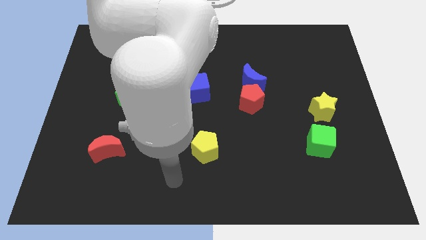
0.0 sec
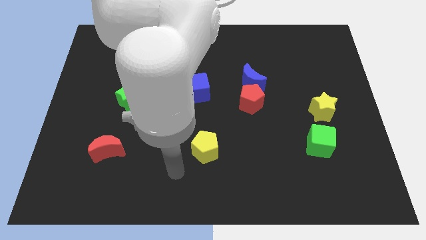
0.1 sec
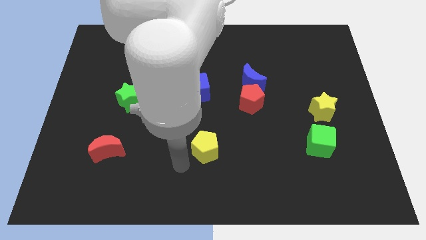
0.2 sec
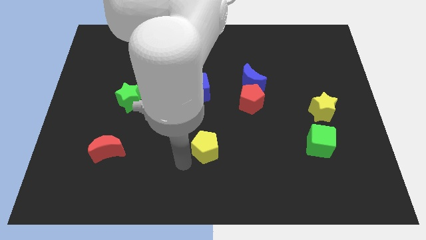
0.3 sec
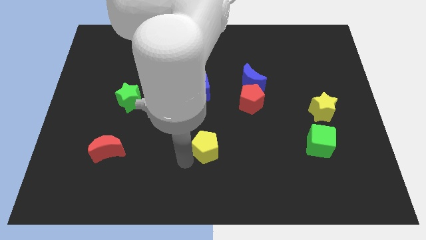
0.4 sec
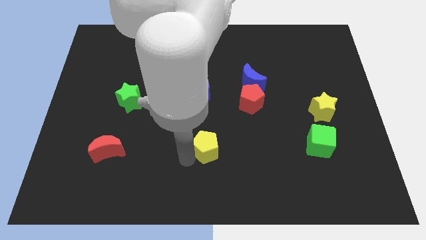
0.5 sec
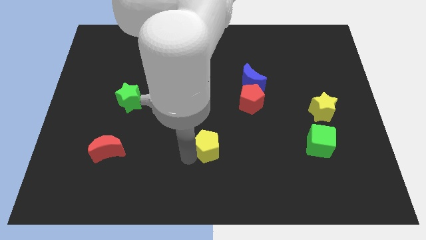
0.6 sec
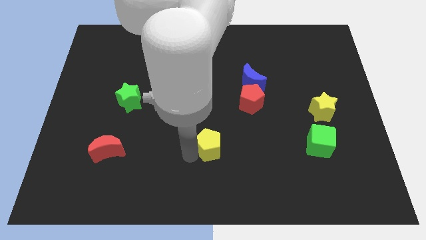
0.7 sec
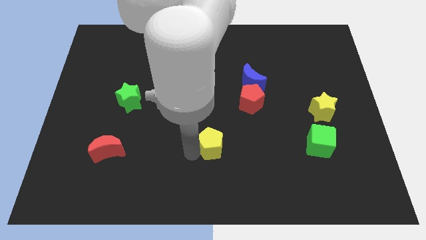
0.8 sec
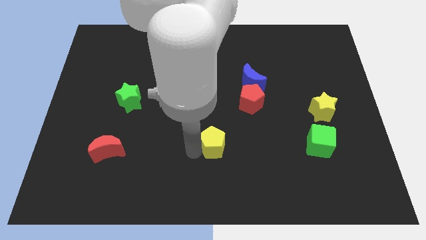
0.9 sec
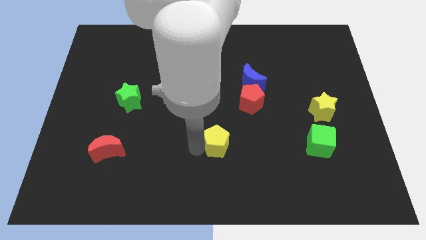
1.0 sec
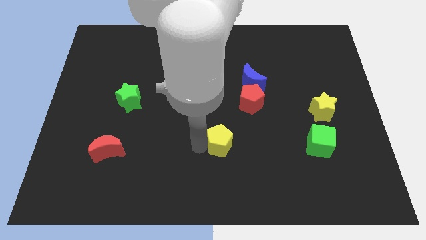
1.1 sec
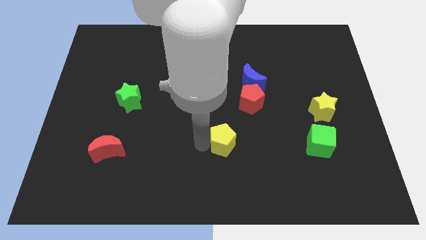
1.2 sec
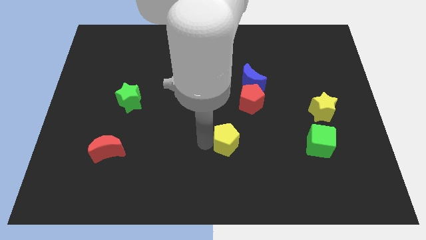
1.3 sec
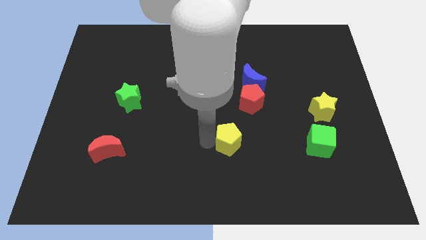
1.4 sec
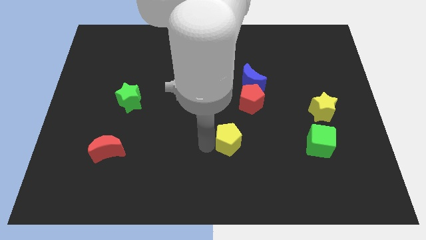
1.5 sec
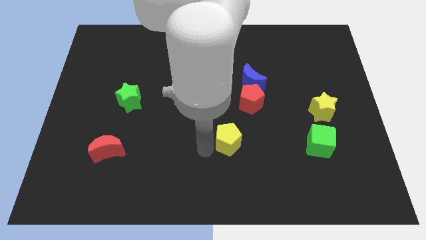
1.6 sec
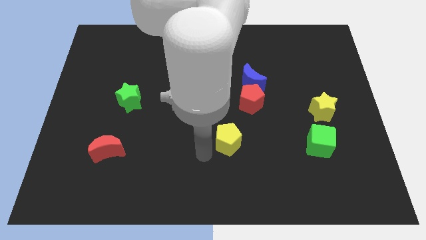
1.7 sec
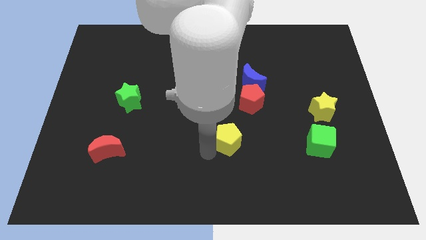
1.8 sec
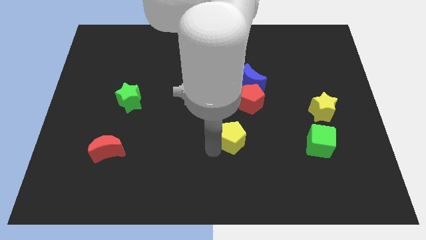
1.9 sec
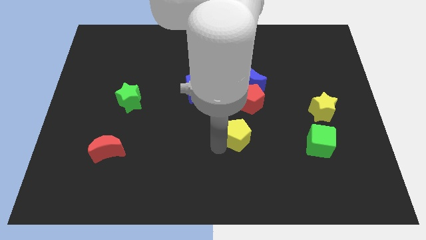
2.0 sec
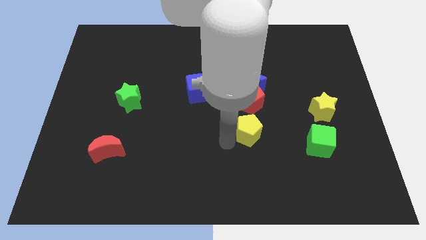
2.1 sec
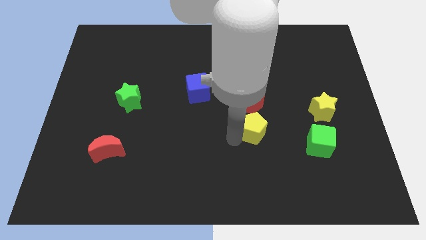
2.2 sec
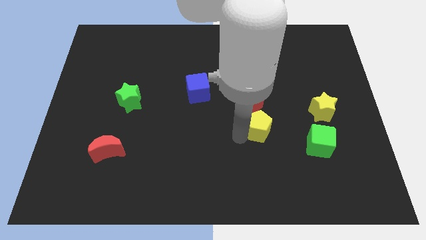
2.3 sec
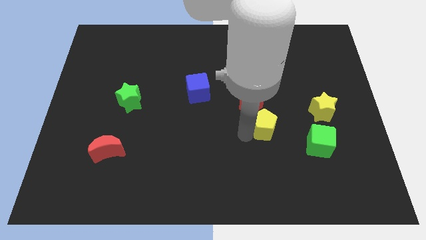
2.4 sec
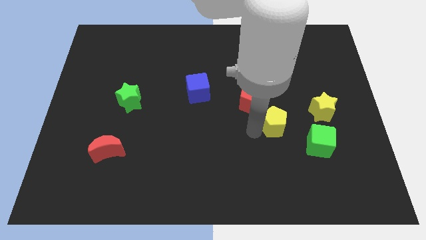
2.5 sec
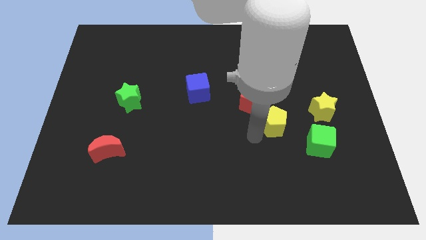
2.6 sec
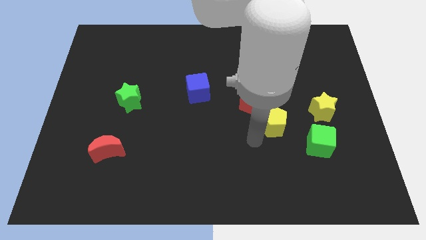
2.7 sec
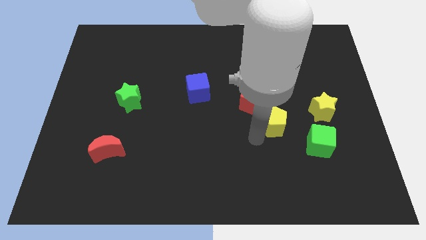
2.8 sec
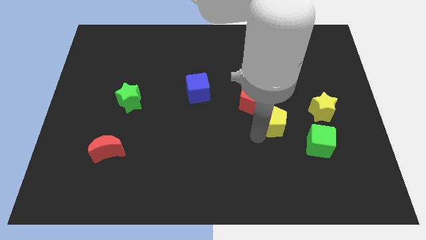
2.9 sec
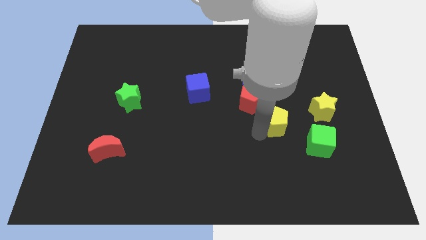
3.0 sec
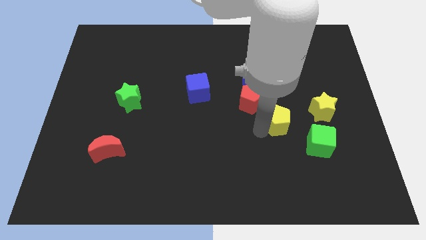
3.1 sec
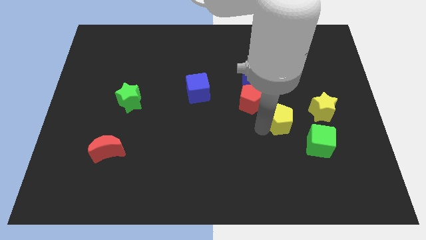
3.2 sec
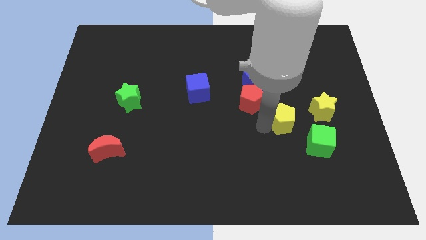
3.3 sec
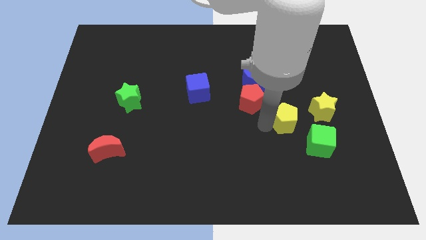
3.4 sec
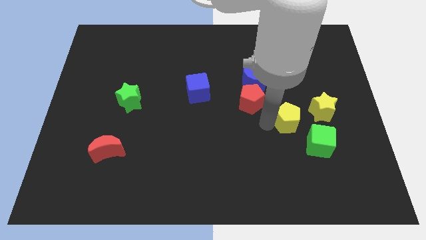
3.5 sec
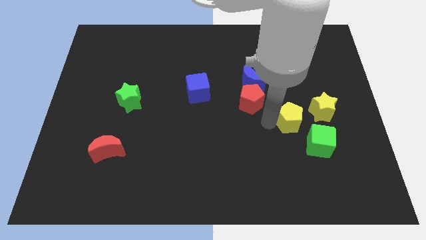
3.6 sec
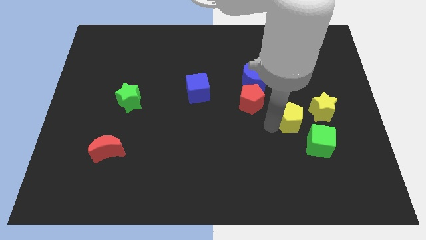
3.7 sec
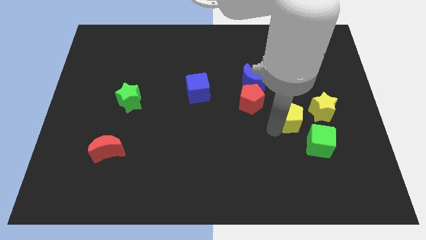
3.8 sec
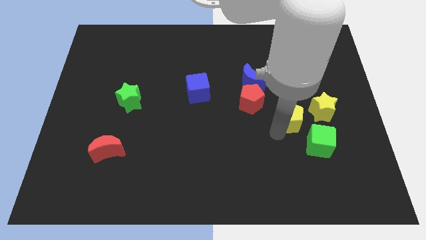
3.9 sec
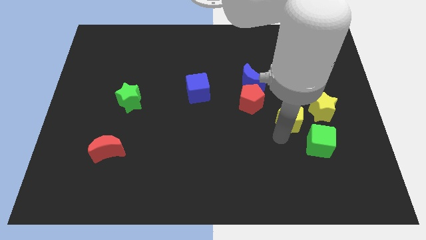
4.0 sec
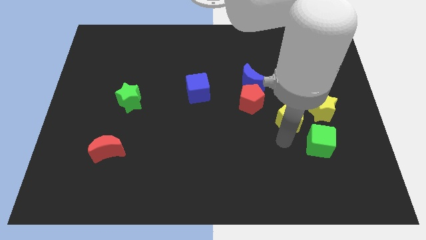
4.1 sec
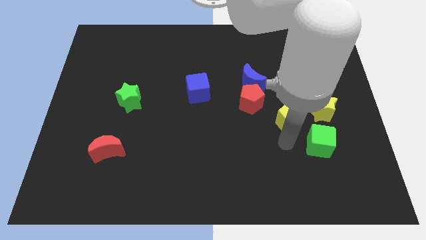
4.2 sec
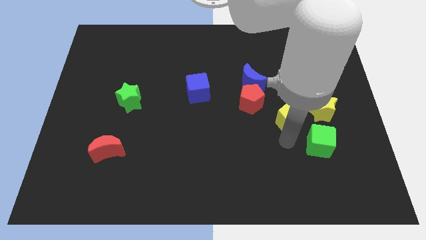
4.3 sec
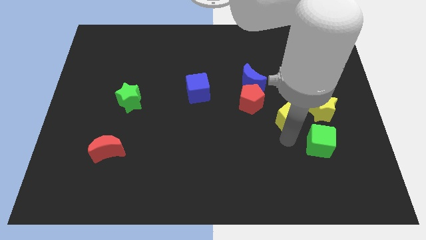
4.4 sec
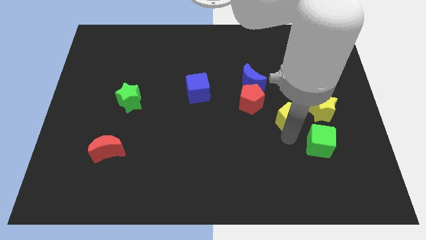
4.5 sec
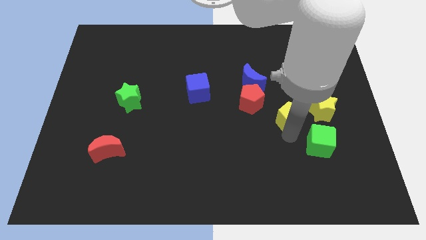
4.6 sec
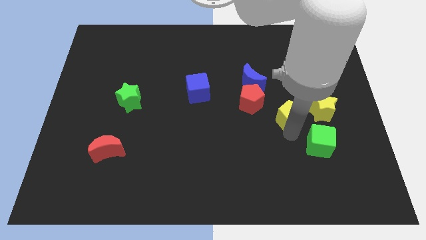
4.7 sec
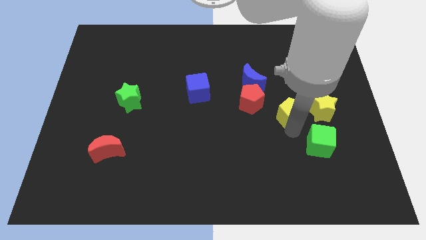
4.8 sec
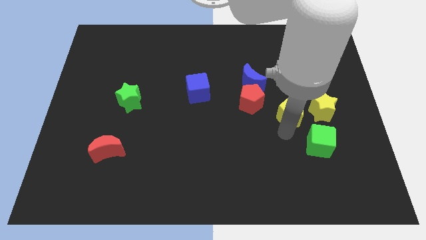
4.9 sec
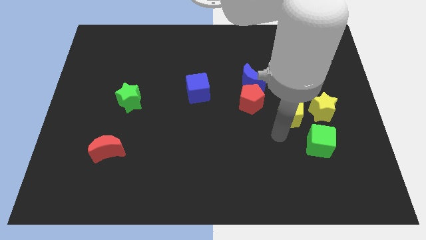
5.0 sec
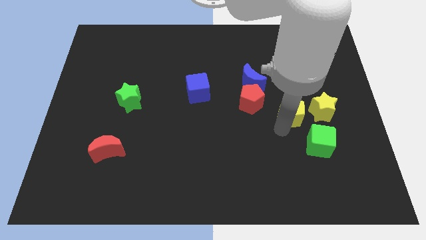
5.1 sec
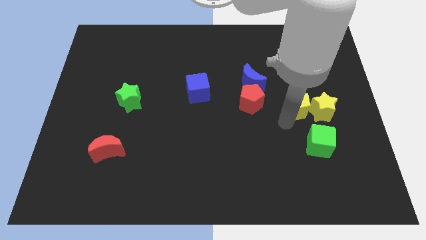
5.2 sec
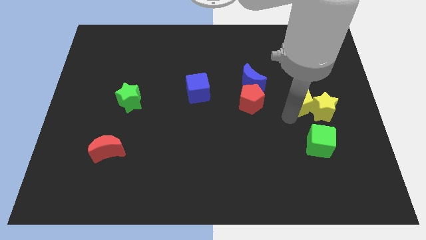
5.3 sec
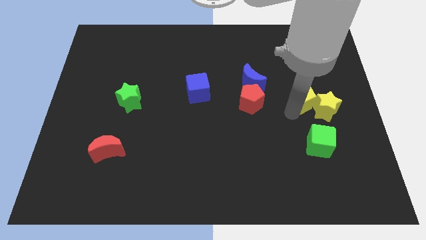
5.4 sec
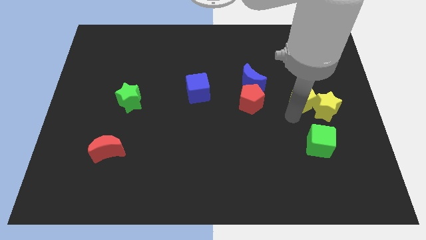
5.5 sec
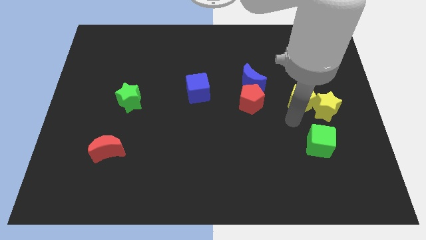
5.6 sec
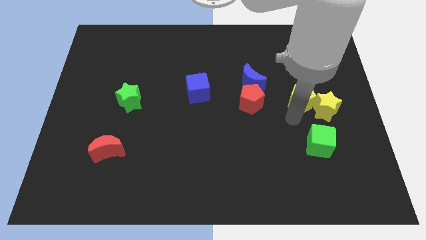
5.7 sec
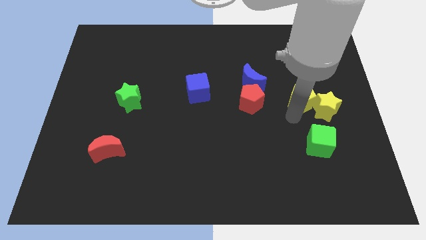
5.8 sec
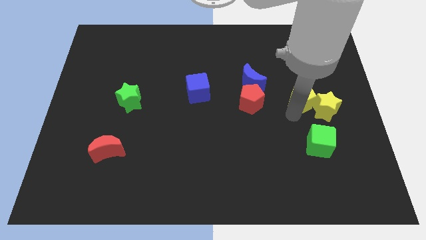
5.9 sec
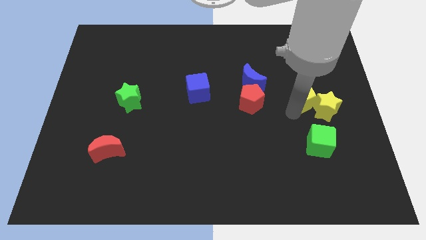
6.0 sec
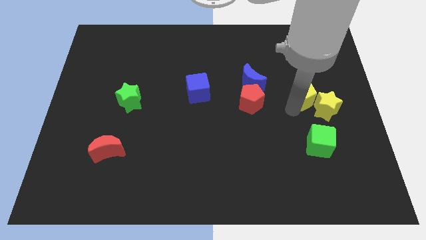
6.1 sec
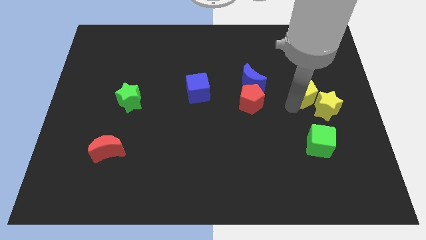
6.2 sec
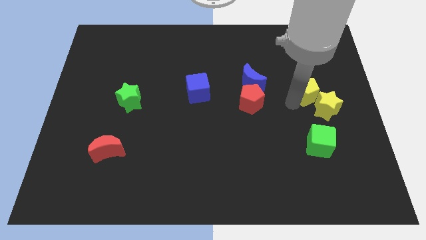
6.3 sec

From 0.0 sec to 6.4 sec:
put the yellow pentagon to the top side of the yellow star

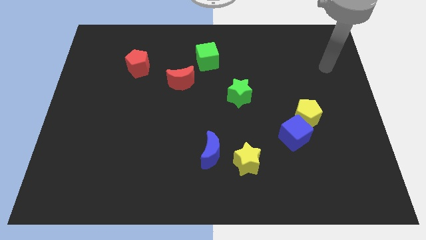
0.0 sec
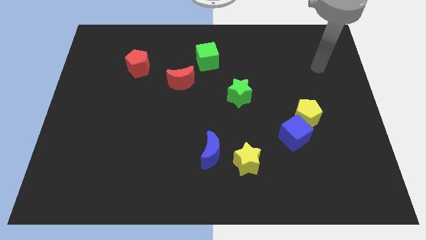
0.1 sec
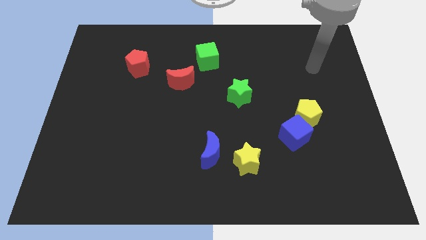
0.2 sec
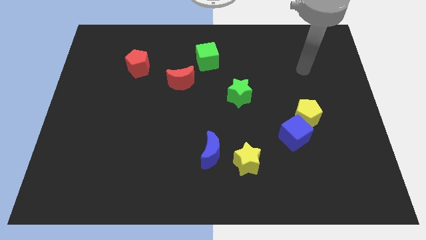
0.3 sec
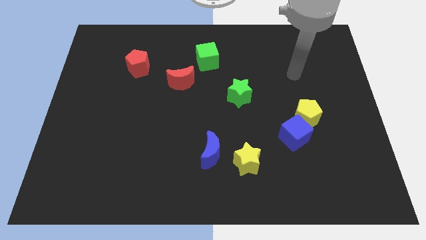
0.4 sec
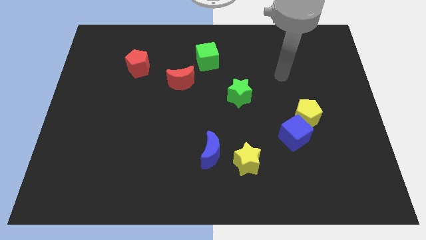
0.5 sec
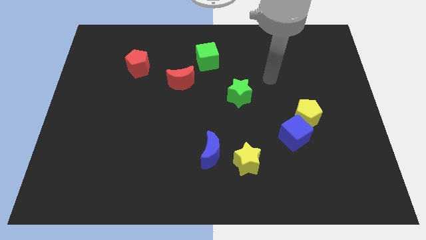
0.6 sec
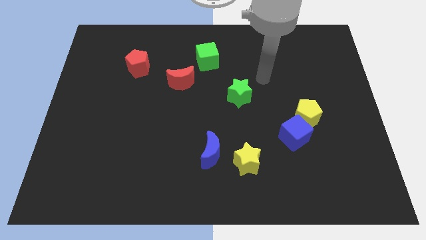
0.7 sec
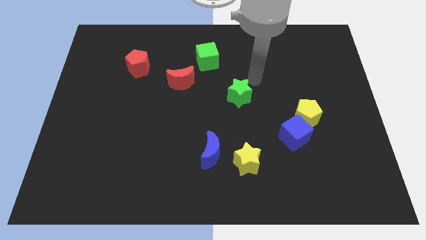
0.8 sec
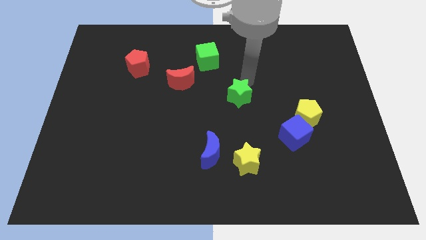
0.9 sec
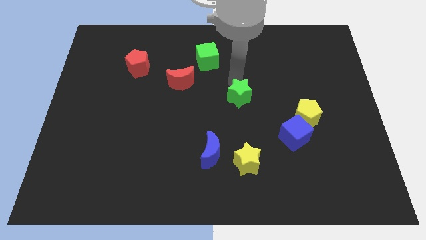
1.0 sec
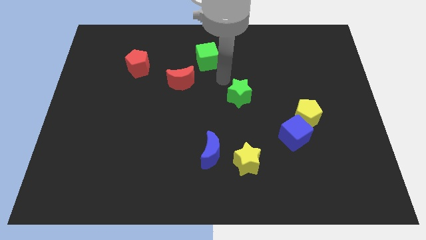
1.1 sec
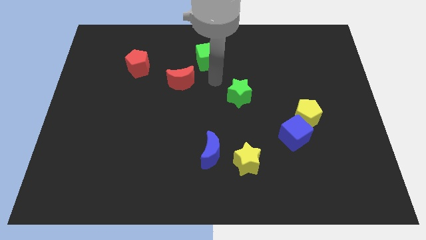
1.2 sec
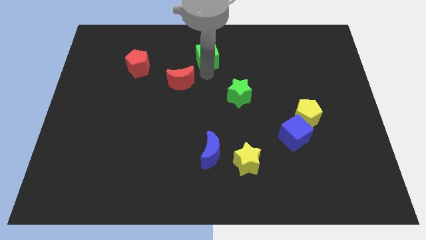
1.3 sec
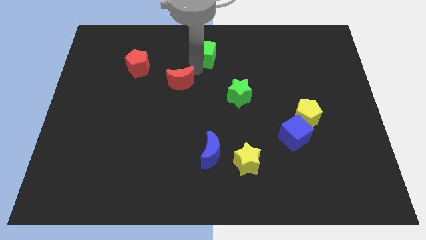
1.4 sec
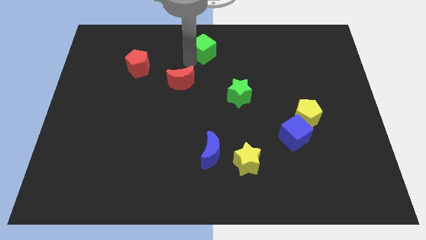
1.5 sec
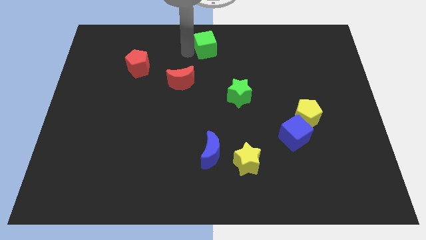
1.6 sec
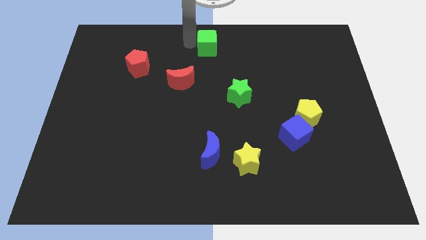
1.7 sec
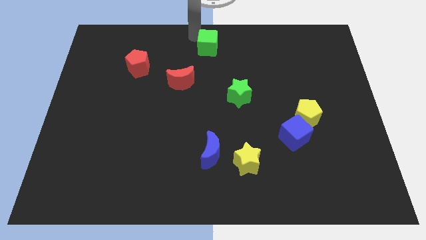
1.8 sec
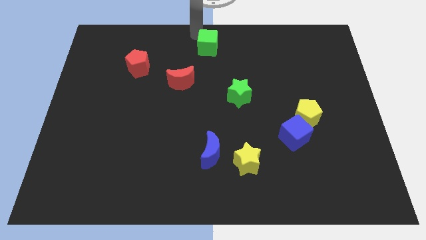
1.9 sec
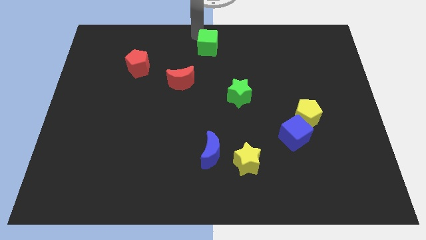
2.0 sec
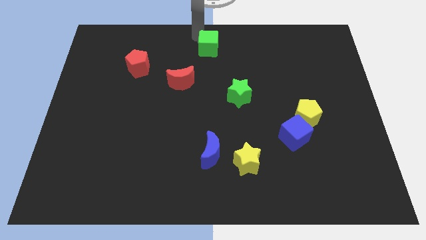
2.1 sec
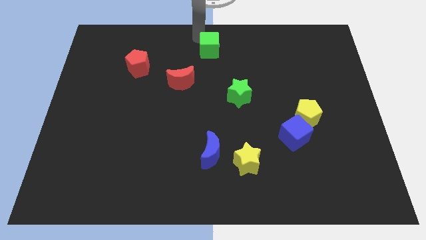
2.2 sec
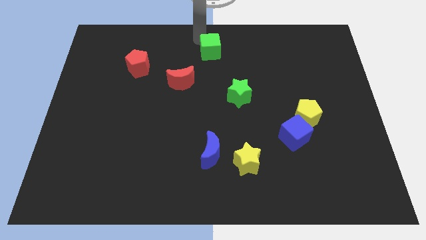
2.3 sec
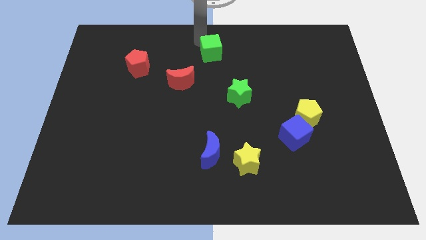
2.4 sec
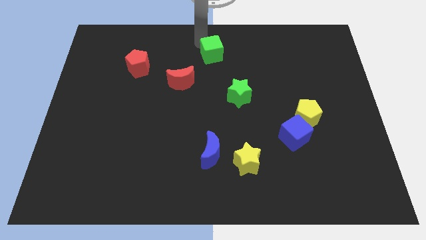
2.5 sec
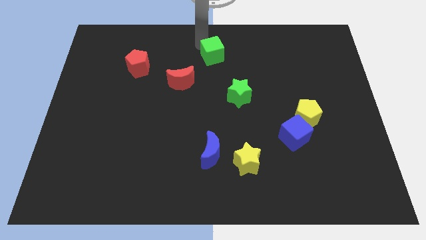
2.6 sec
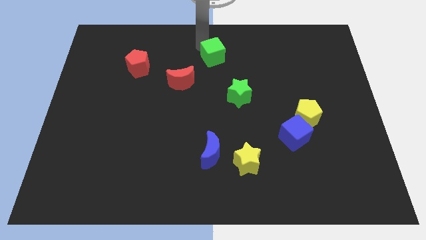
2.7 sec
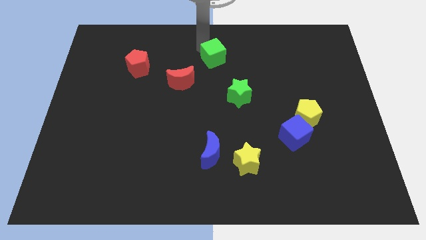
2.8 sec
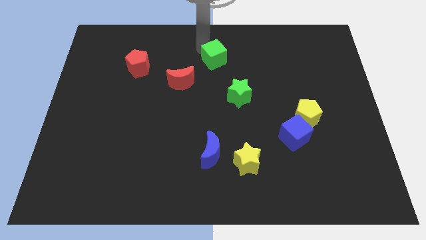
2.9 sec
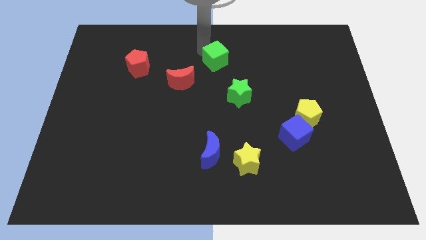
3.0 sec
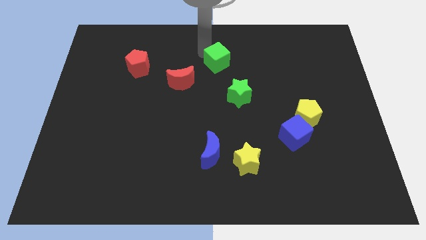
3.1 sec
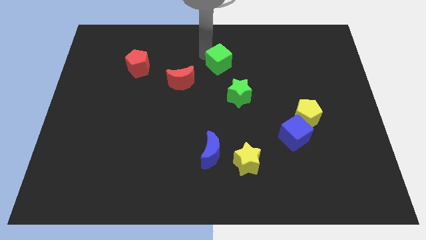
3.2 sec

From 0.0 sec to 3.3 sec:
push the green cube to the top side of the green star
